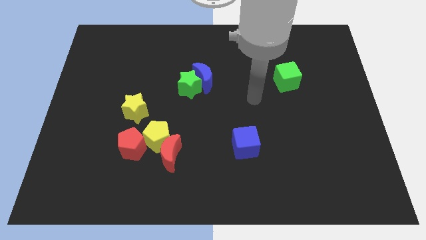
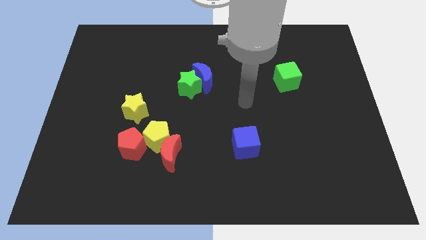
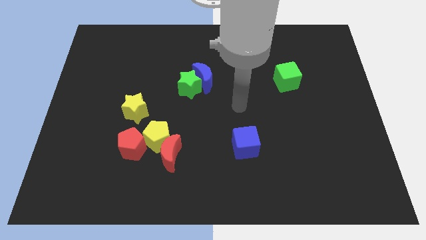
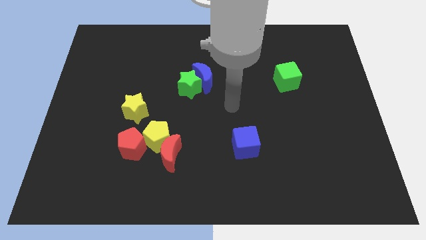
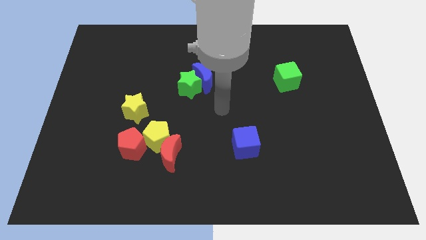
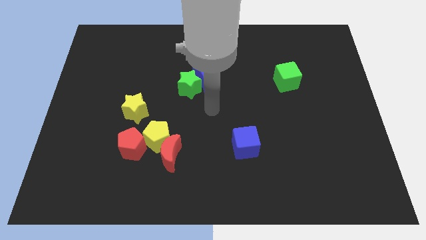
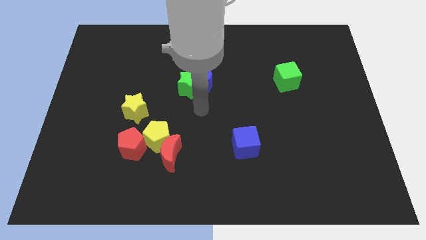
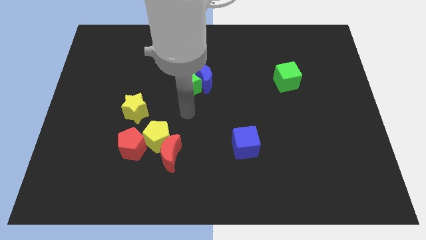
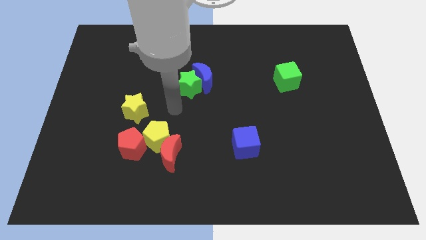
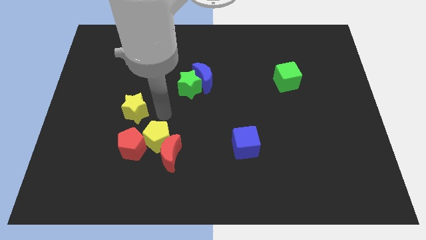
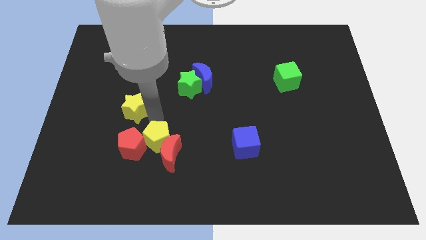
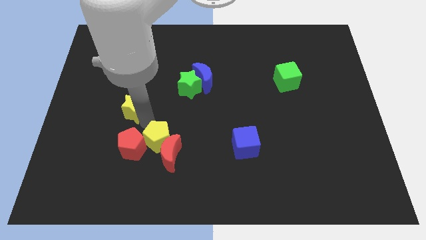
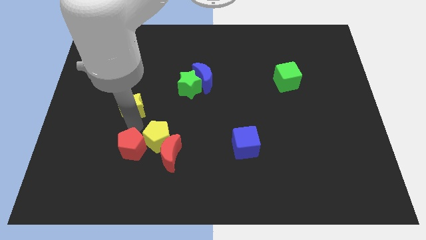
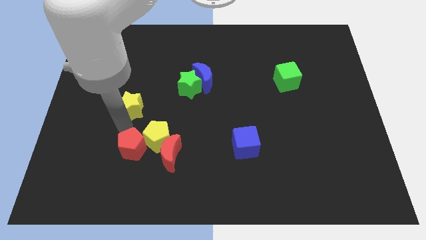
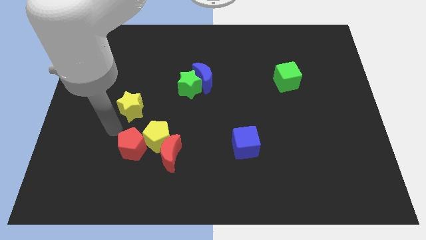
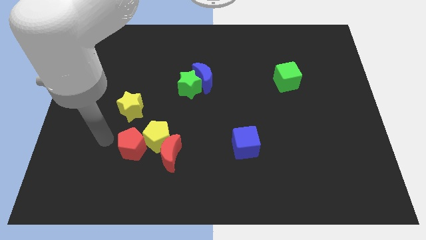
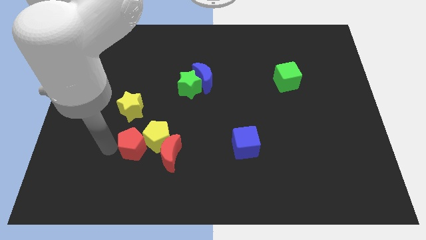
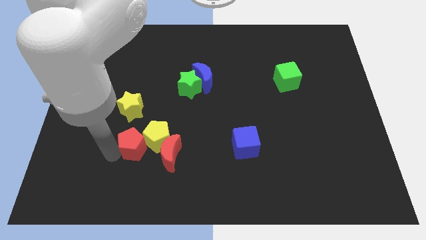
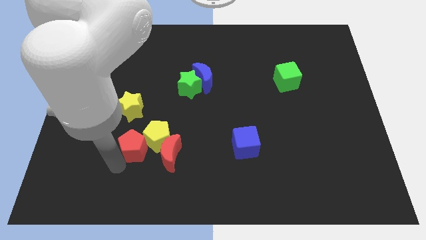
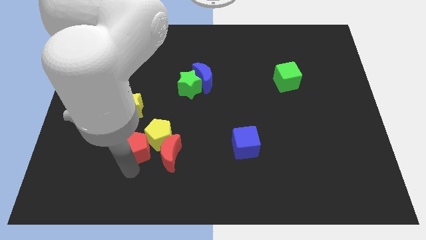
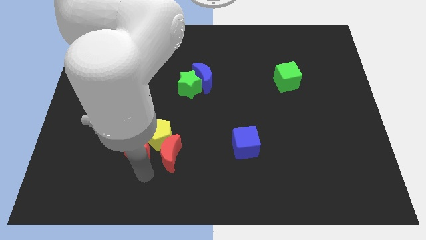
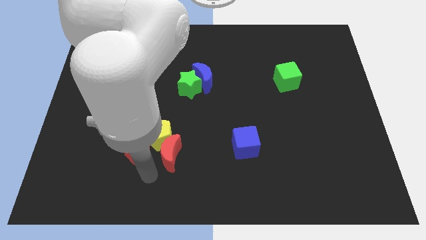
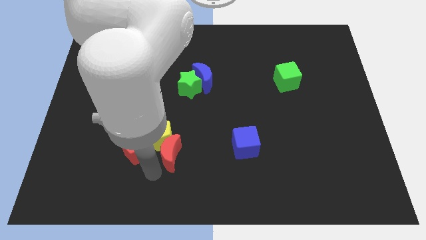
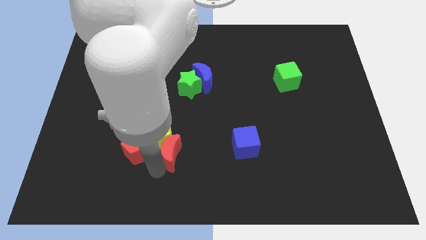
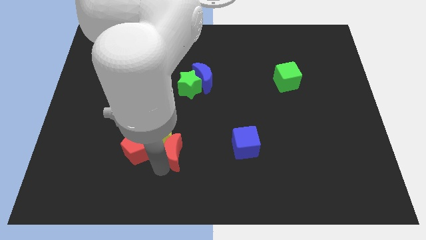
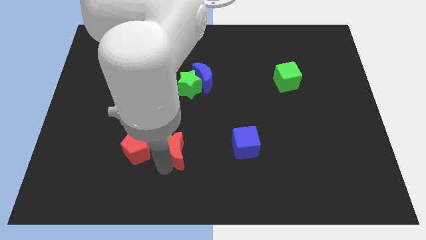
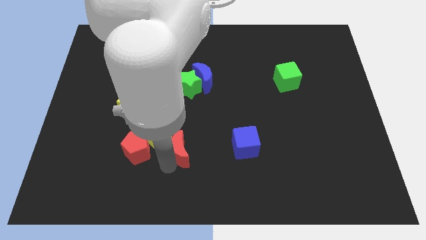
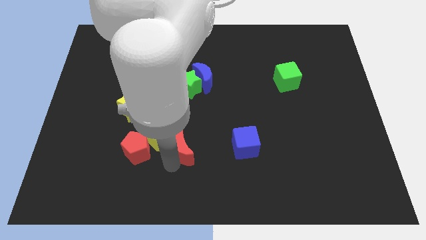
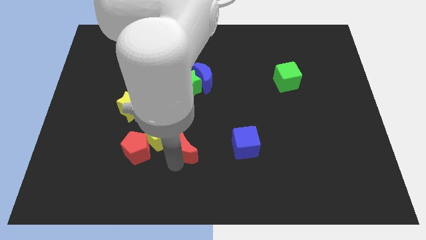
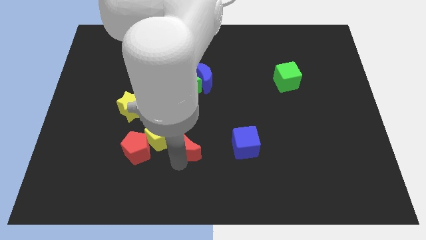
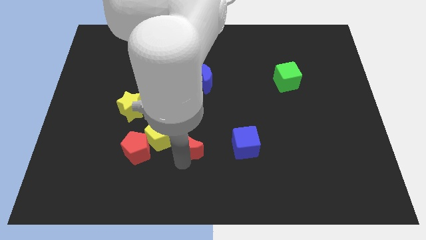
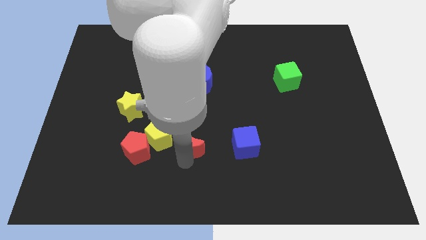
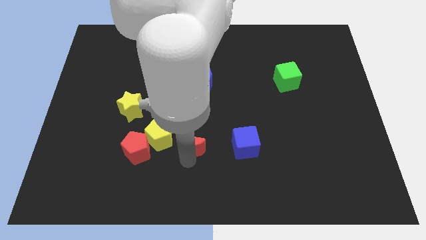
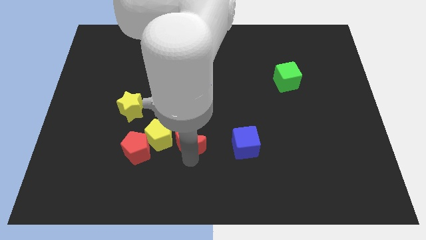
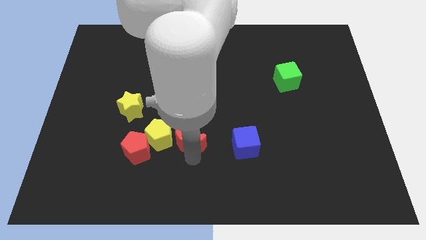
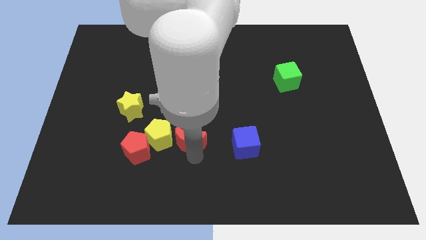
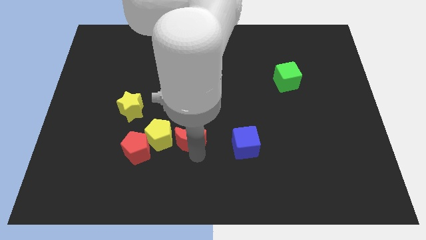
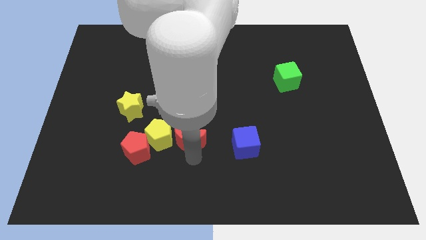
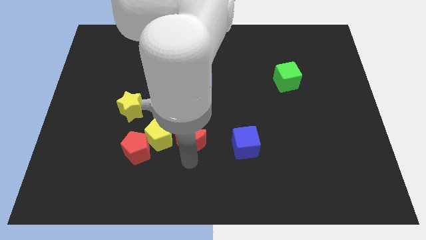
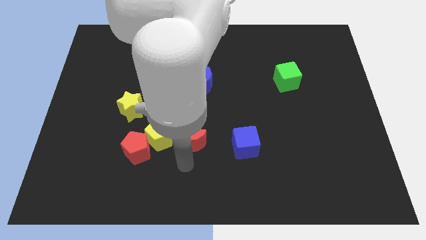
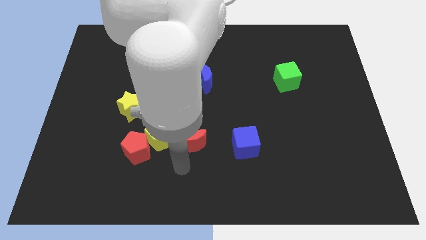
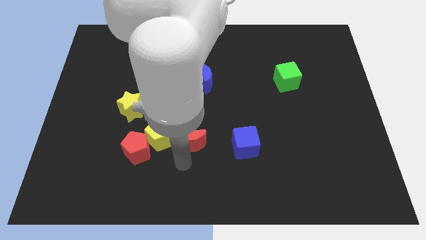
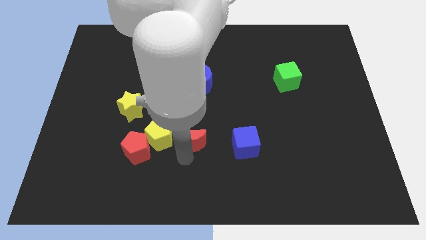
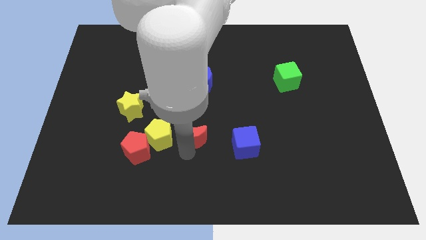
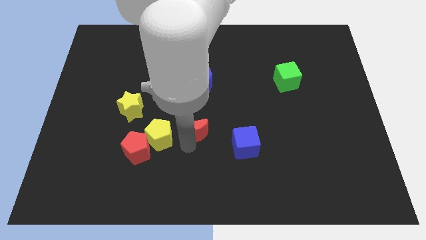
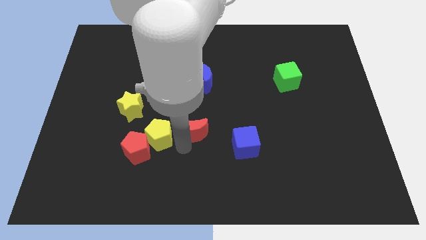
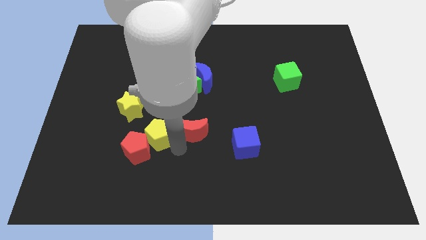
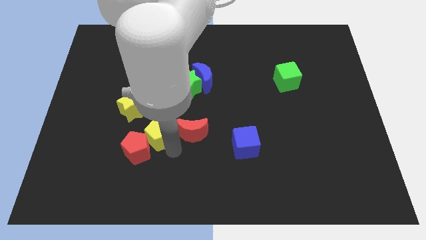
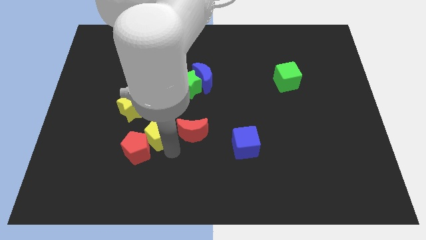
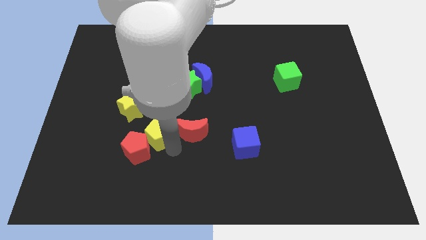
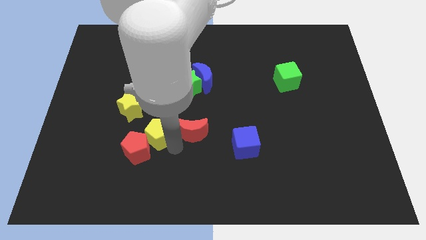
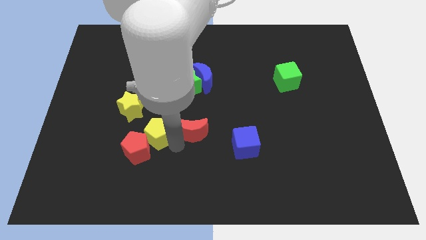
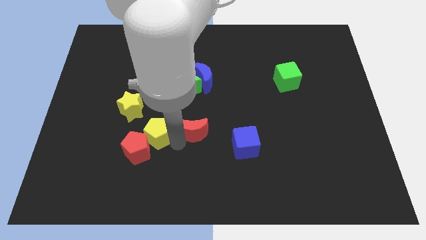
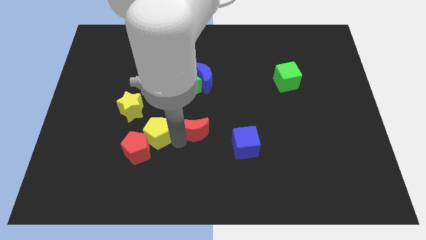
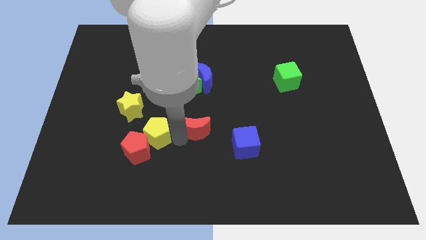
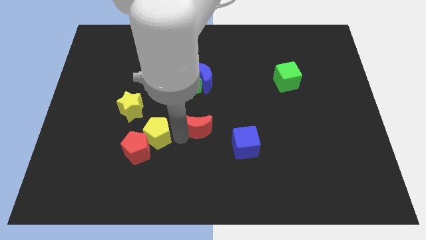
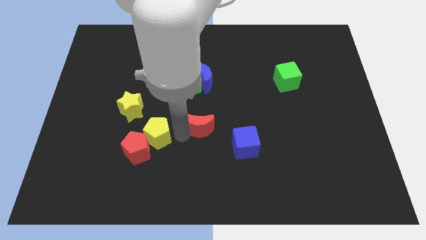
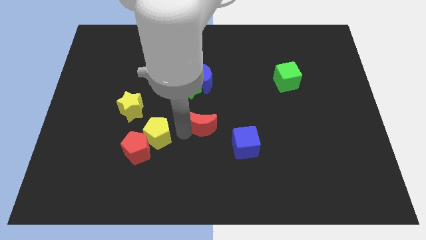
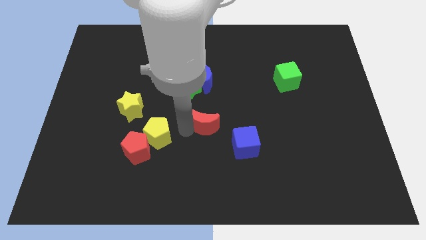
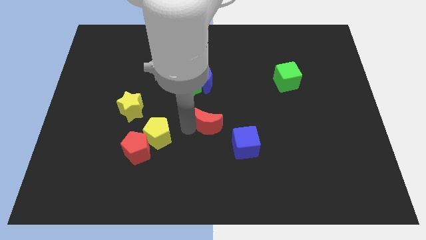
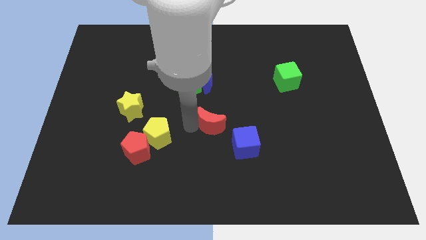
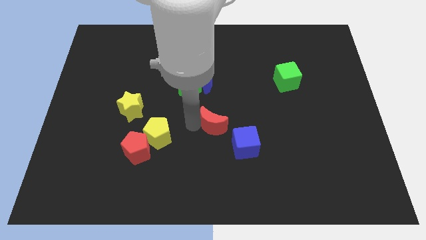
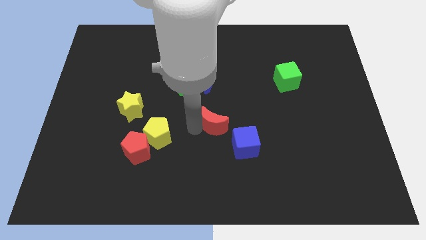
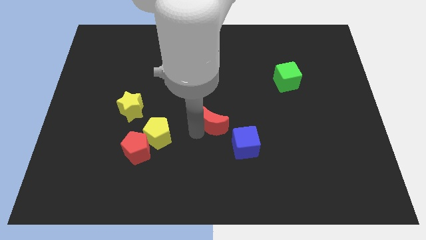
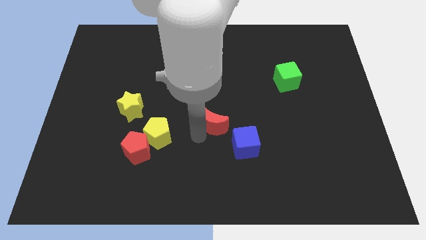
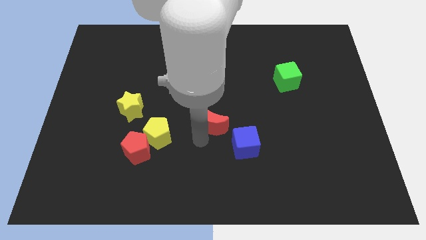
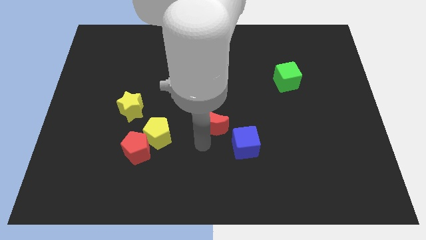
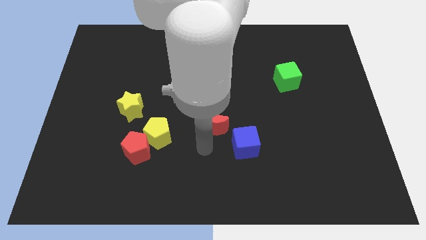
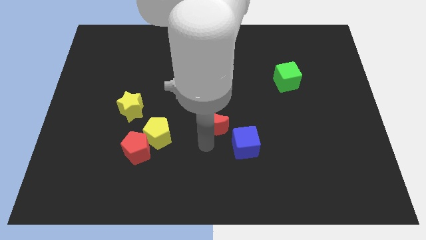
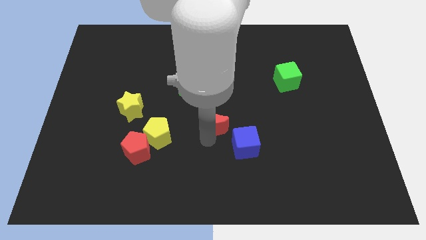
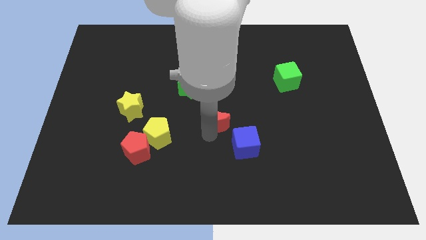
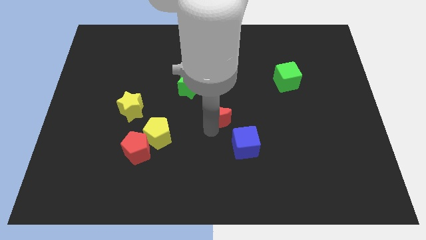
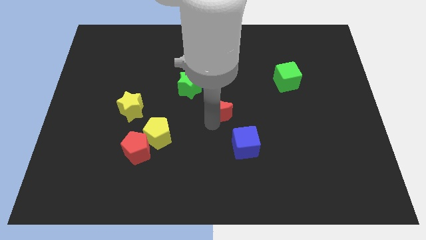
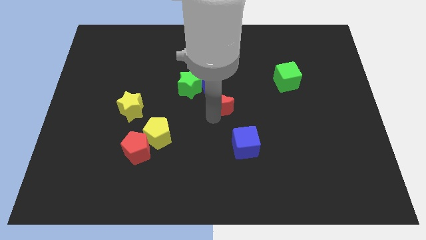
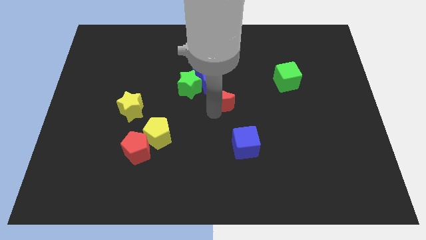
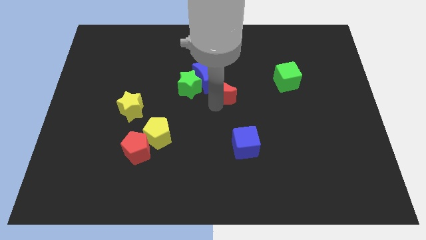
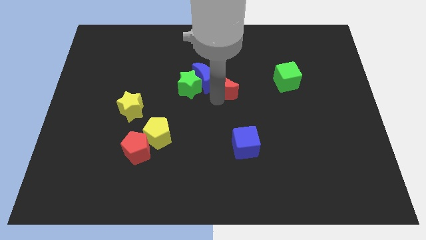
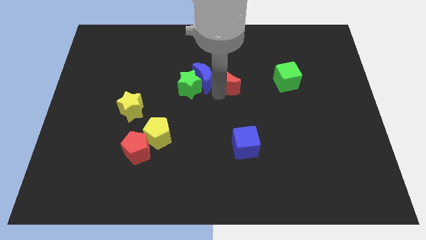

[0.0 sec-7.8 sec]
put the red moon just left of the green cube

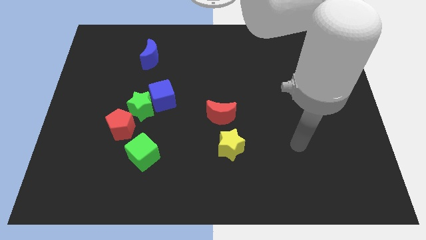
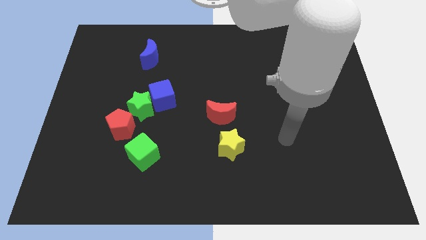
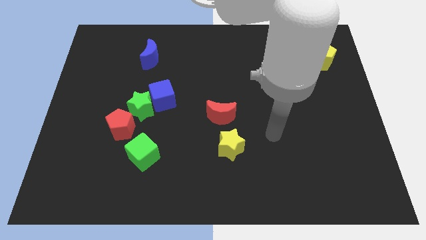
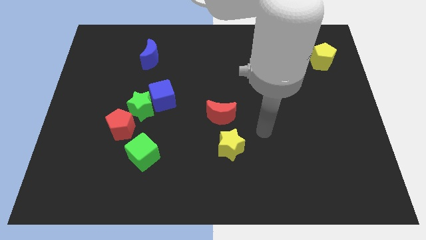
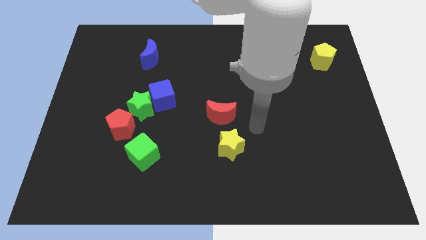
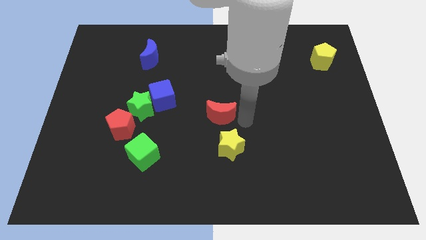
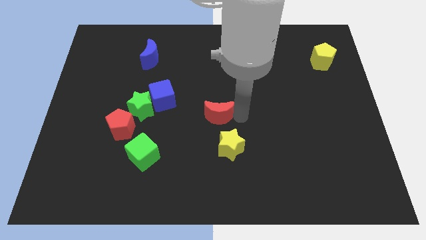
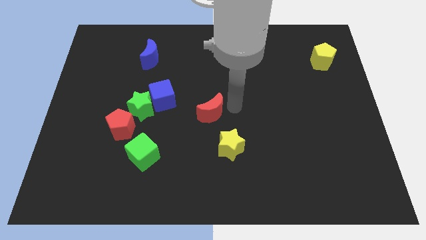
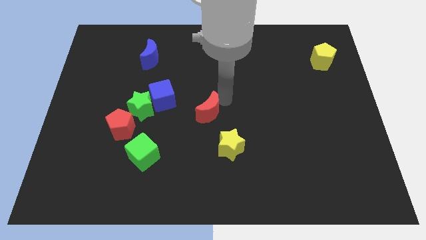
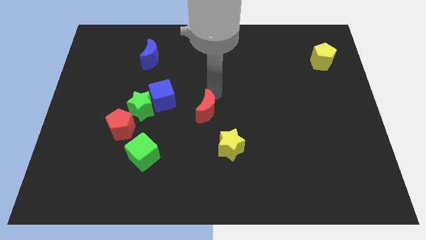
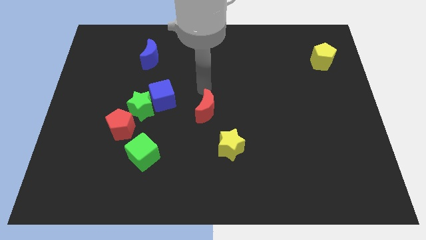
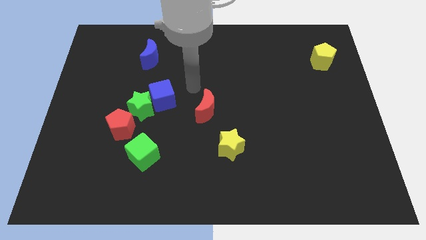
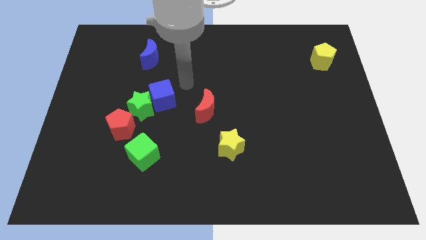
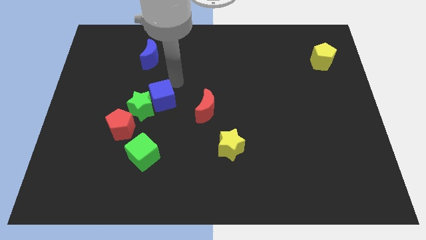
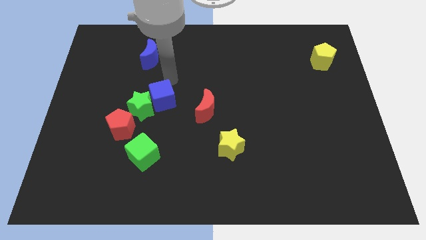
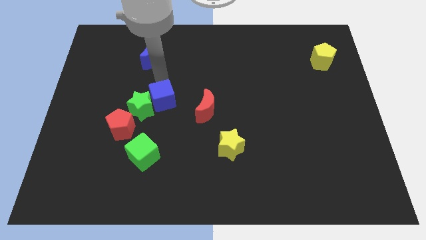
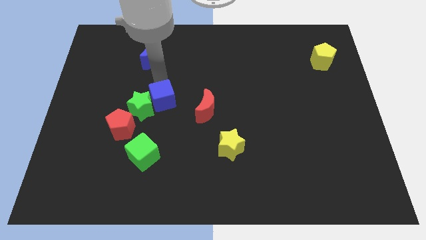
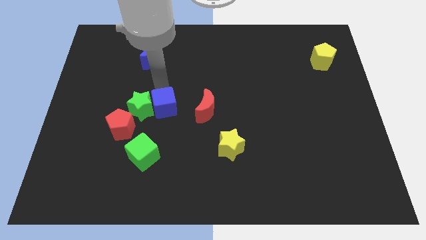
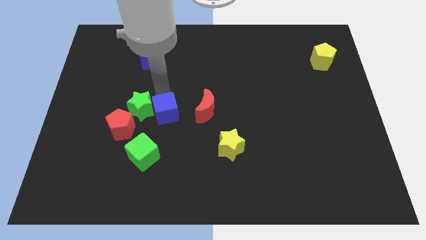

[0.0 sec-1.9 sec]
slide the blue cube right of the red pentagon
